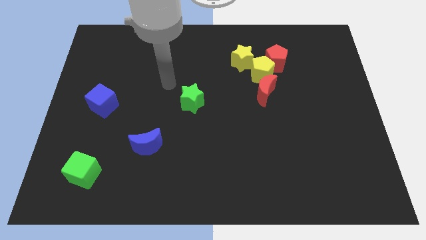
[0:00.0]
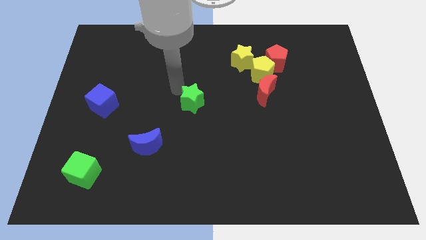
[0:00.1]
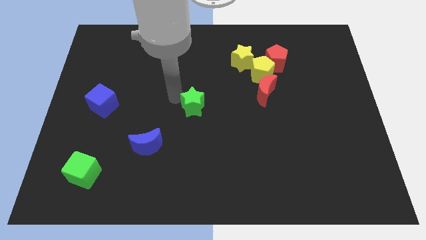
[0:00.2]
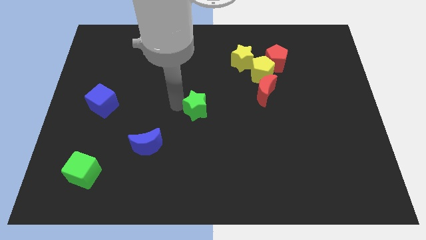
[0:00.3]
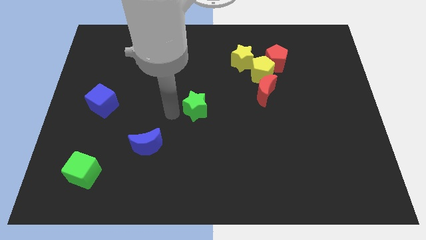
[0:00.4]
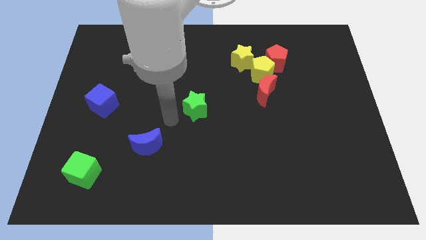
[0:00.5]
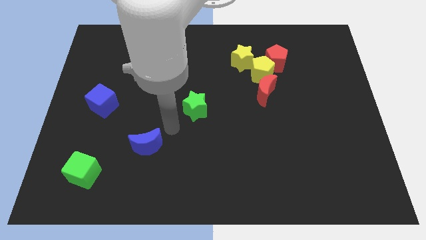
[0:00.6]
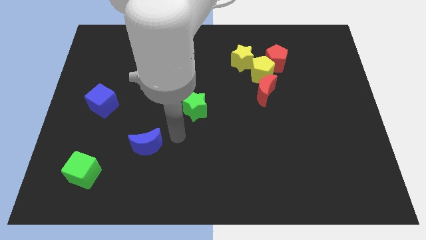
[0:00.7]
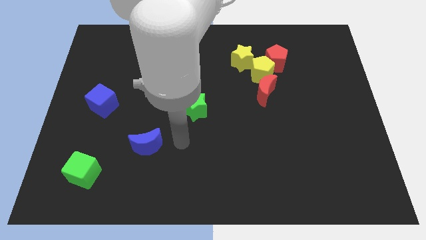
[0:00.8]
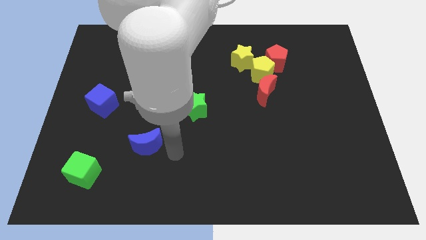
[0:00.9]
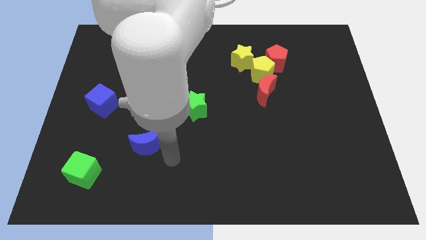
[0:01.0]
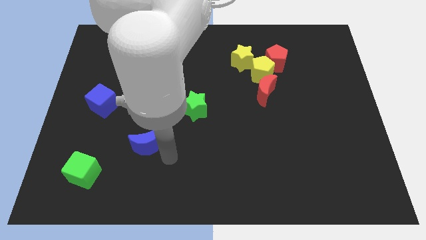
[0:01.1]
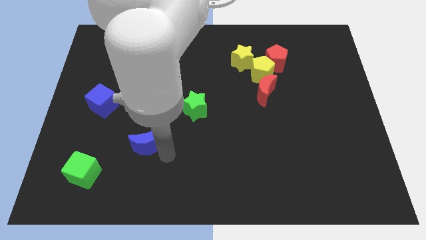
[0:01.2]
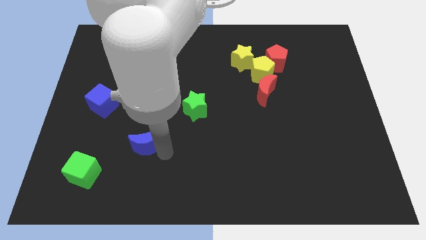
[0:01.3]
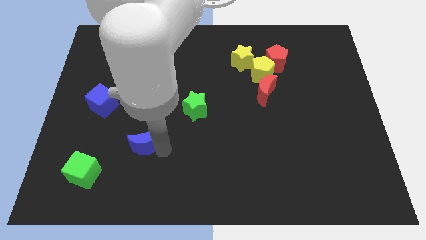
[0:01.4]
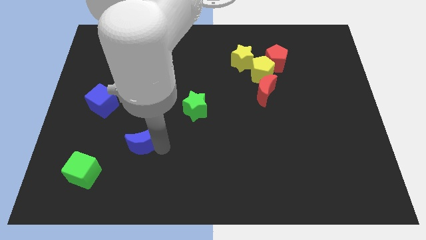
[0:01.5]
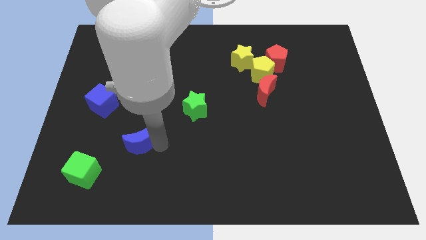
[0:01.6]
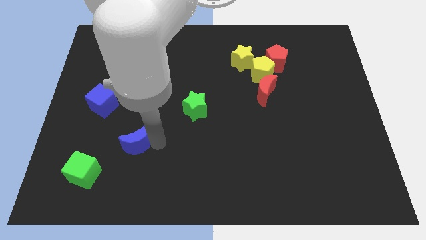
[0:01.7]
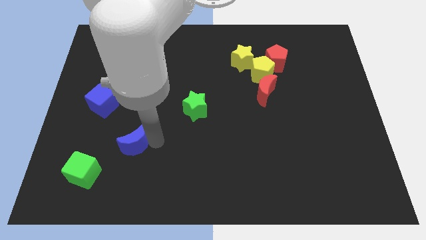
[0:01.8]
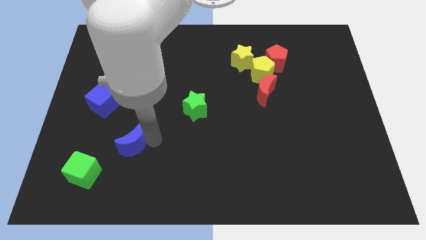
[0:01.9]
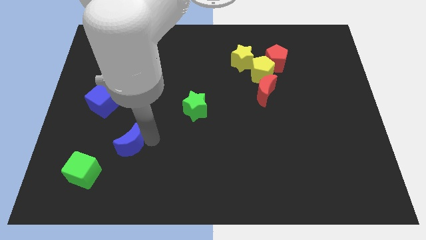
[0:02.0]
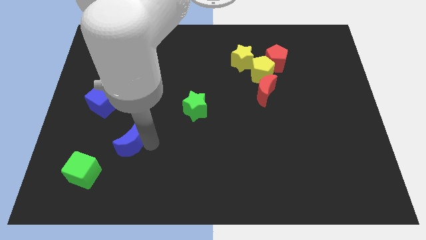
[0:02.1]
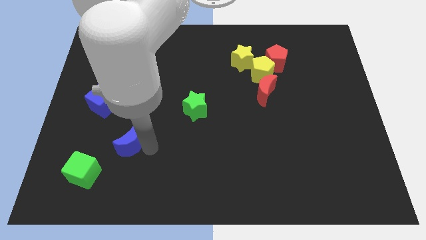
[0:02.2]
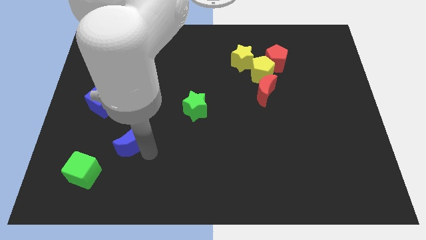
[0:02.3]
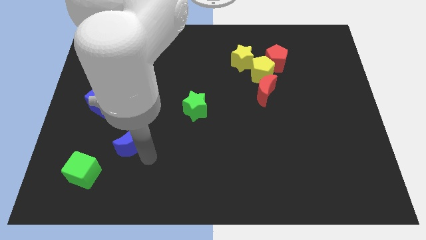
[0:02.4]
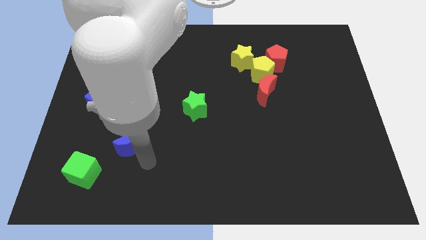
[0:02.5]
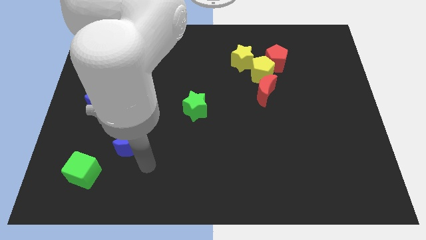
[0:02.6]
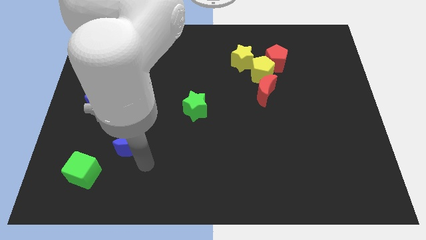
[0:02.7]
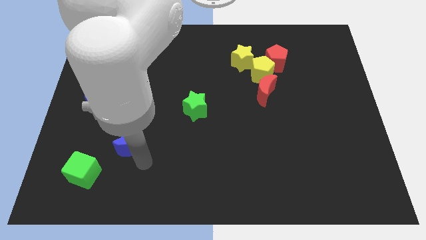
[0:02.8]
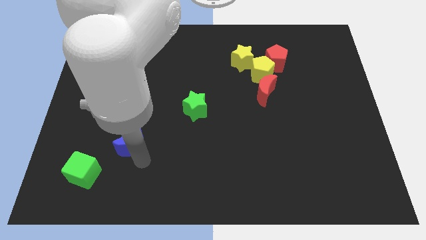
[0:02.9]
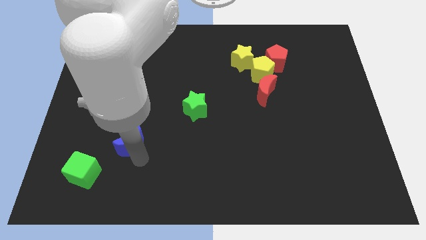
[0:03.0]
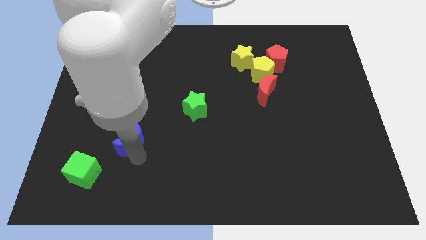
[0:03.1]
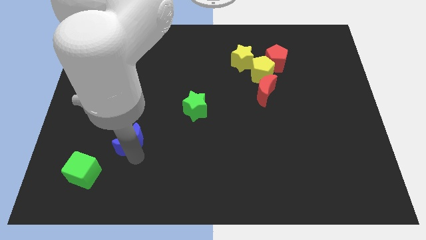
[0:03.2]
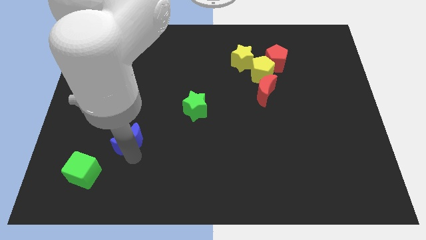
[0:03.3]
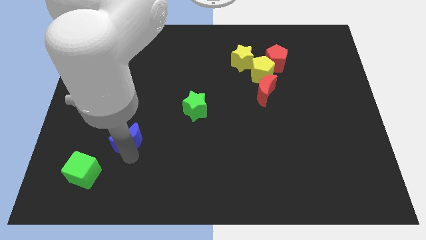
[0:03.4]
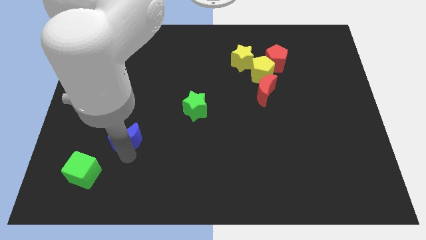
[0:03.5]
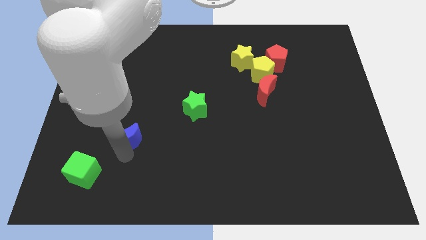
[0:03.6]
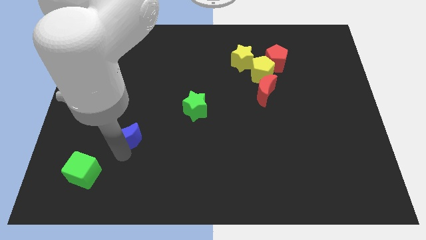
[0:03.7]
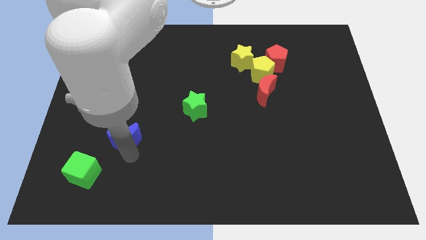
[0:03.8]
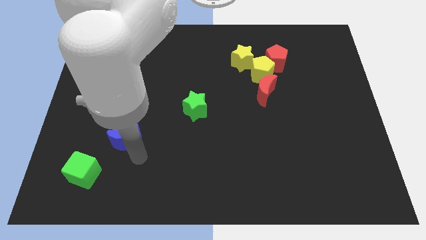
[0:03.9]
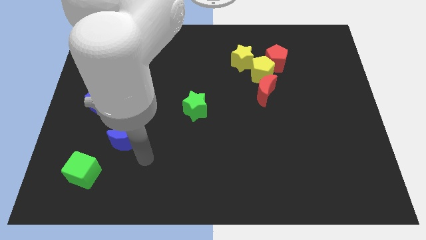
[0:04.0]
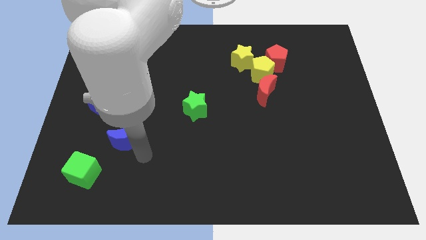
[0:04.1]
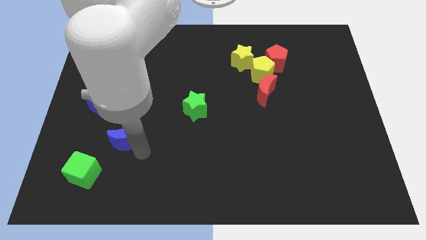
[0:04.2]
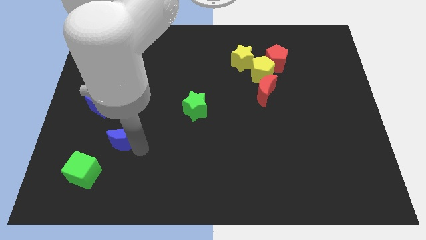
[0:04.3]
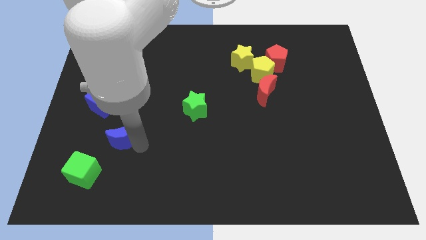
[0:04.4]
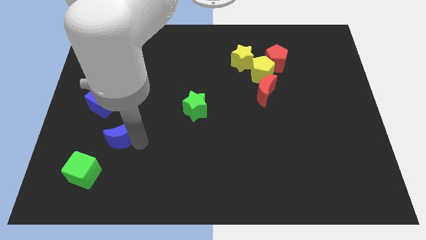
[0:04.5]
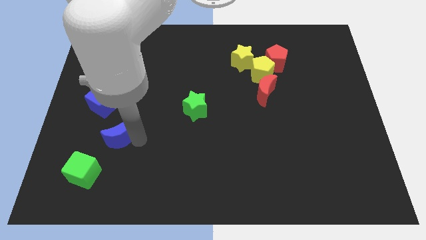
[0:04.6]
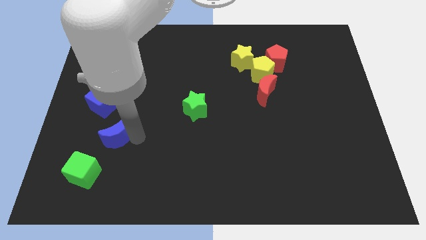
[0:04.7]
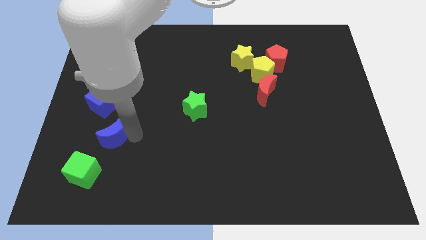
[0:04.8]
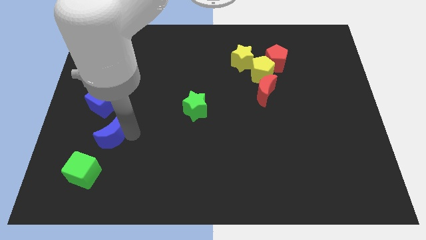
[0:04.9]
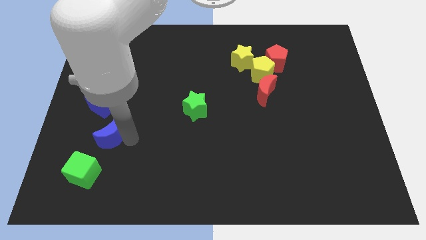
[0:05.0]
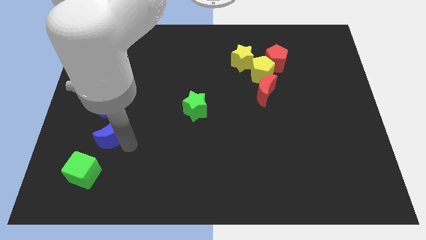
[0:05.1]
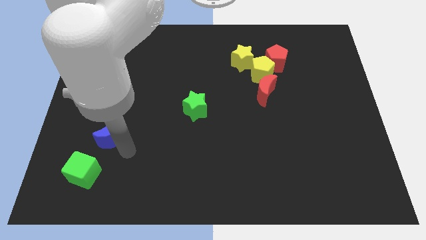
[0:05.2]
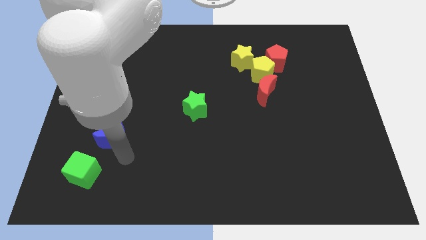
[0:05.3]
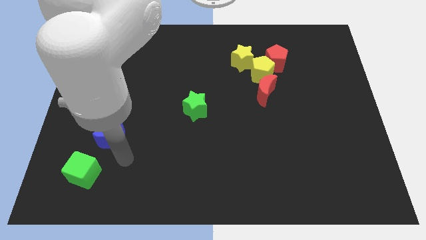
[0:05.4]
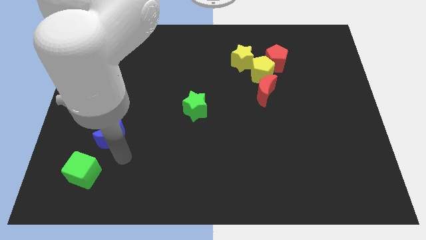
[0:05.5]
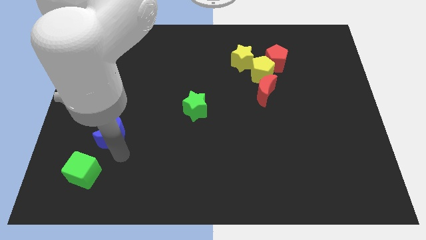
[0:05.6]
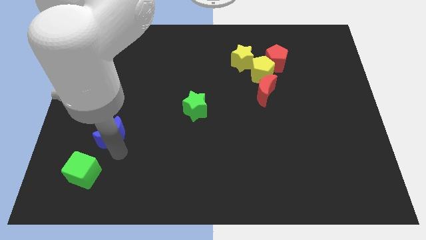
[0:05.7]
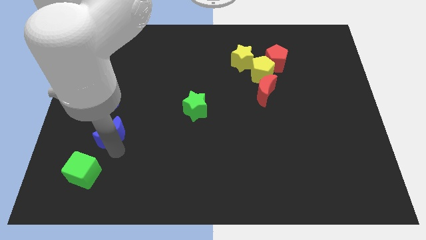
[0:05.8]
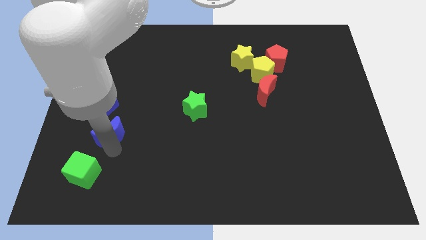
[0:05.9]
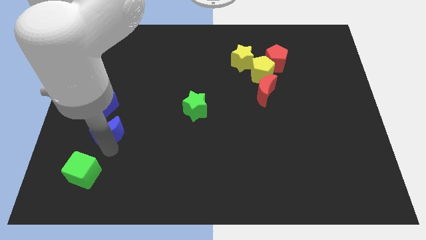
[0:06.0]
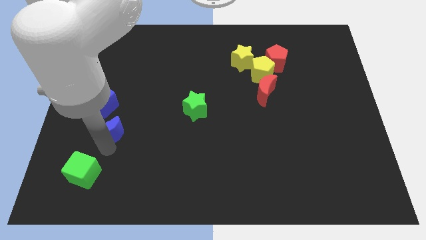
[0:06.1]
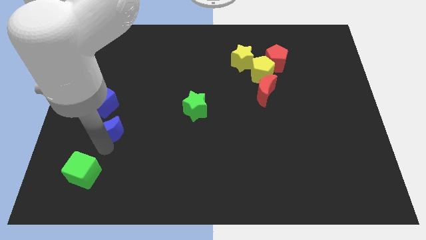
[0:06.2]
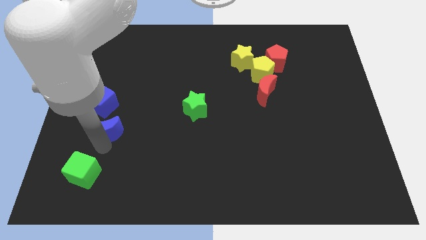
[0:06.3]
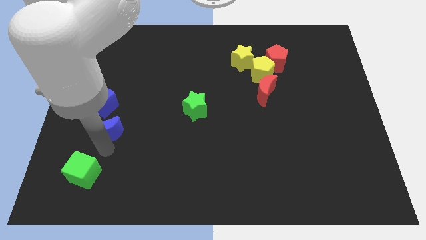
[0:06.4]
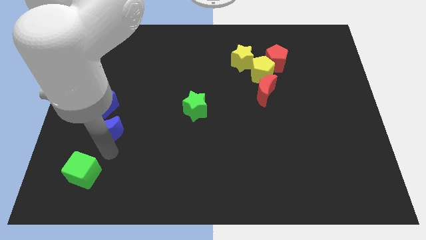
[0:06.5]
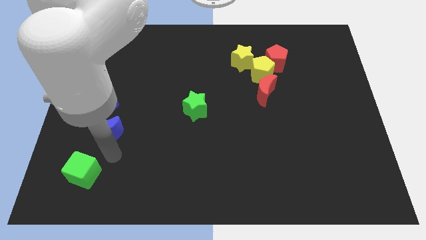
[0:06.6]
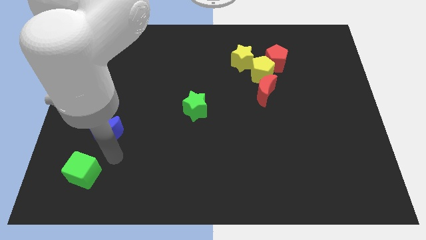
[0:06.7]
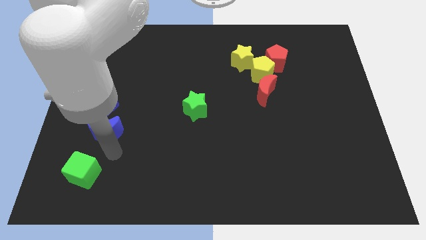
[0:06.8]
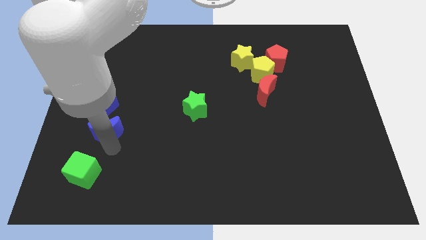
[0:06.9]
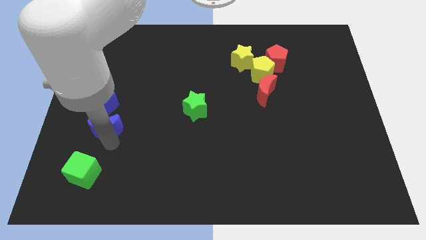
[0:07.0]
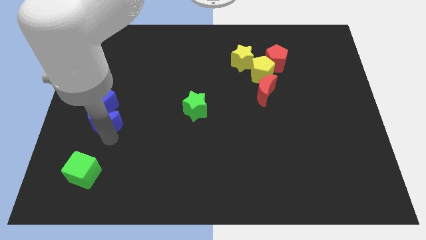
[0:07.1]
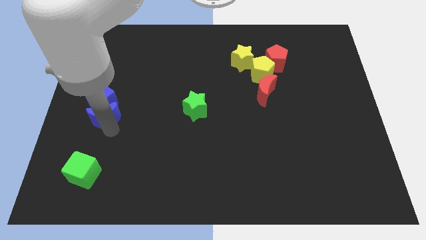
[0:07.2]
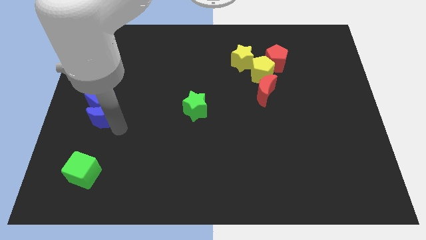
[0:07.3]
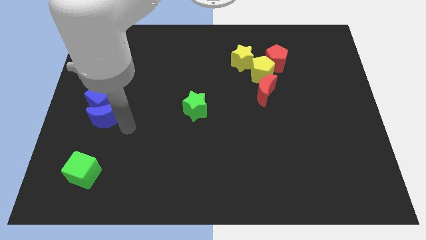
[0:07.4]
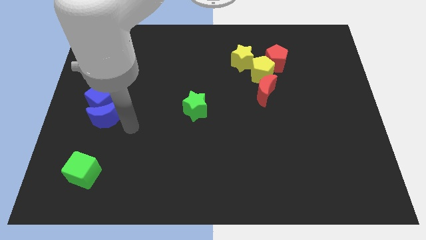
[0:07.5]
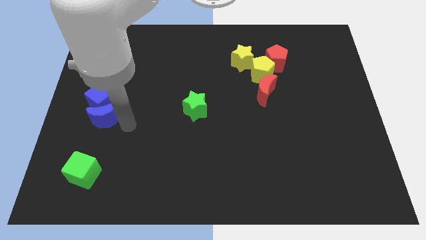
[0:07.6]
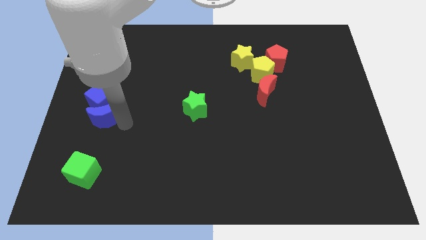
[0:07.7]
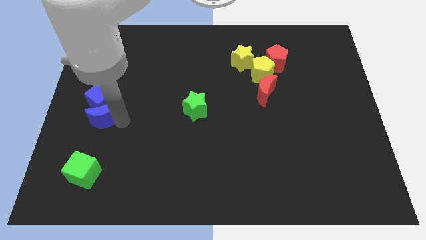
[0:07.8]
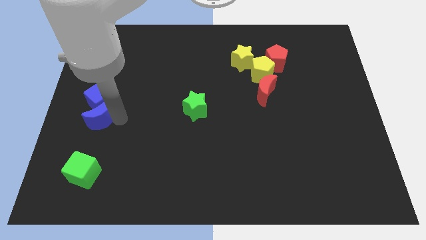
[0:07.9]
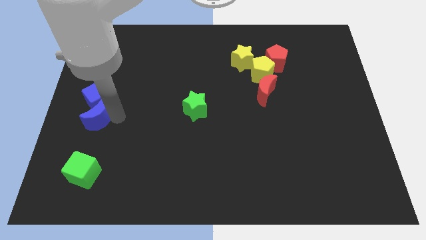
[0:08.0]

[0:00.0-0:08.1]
move the blue moon to the center left
